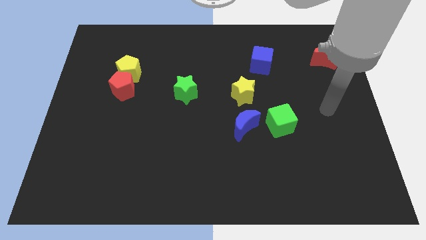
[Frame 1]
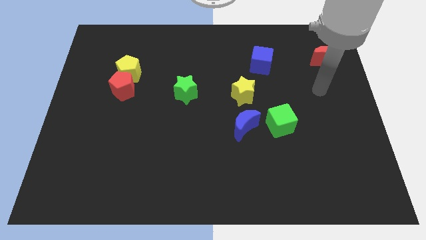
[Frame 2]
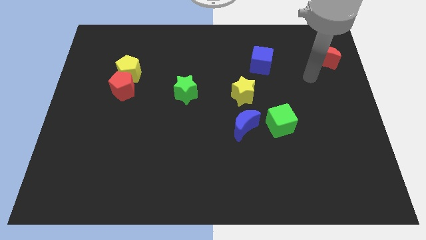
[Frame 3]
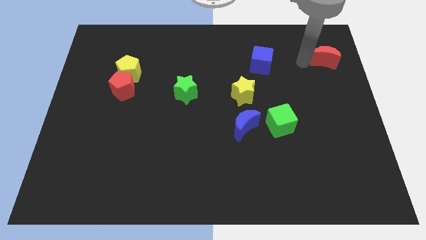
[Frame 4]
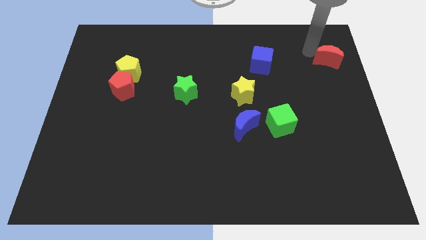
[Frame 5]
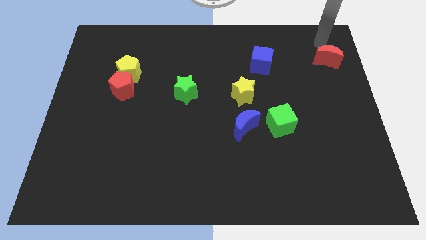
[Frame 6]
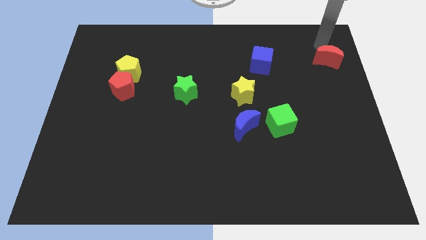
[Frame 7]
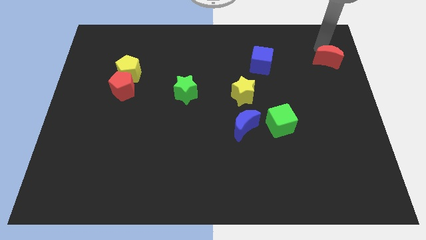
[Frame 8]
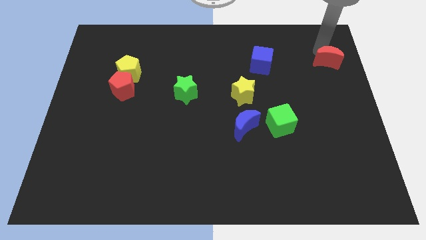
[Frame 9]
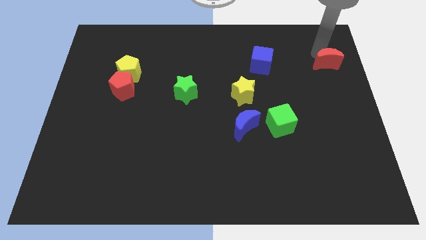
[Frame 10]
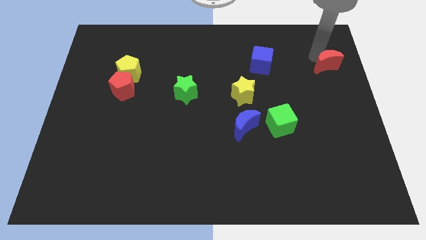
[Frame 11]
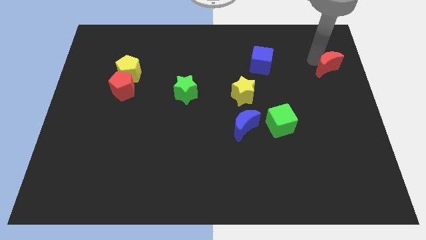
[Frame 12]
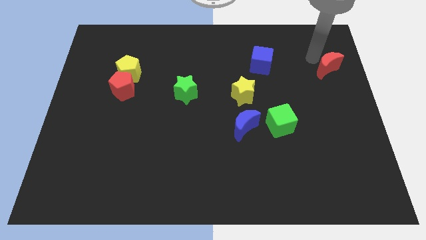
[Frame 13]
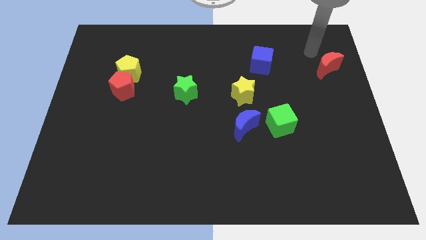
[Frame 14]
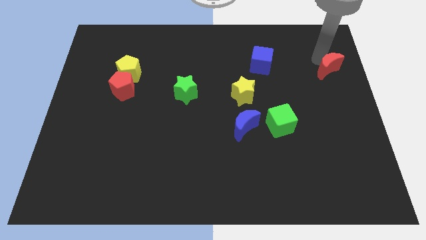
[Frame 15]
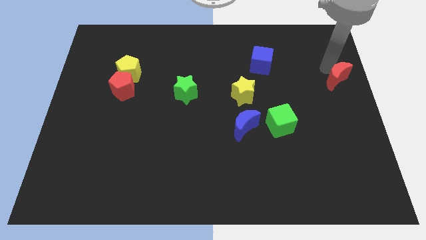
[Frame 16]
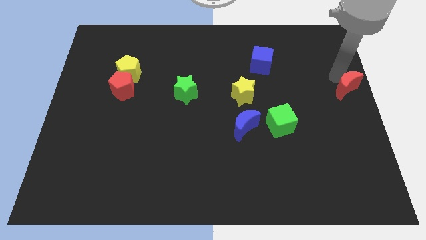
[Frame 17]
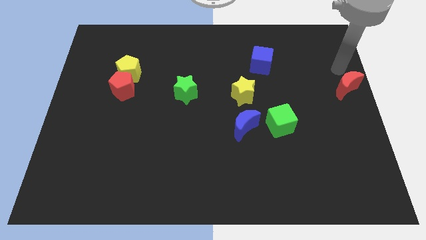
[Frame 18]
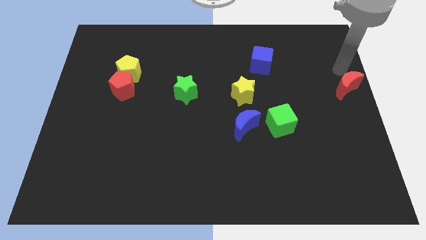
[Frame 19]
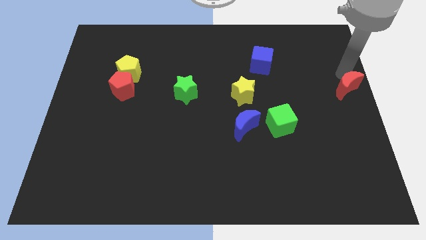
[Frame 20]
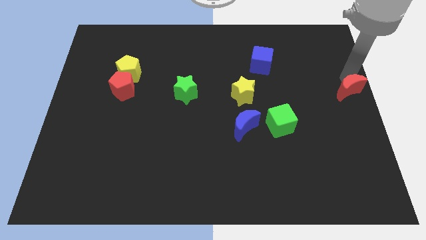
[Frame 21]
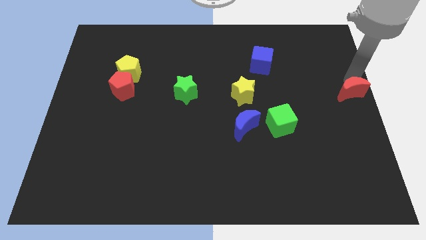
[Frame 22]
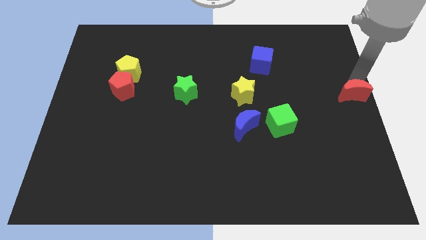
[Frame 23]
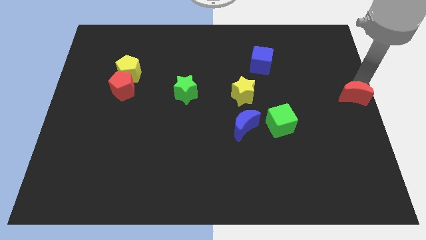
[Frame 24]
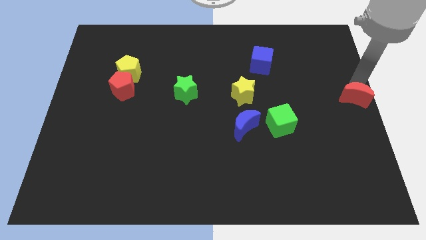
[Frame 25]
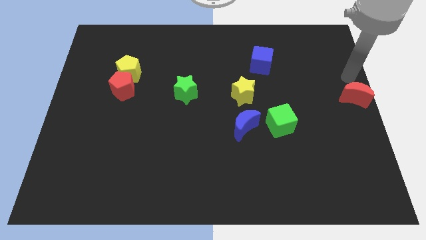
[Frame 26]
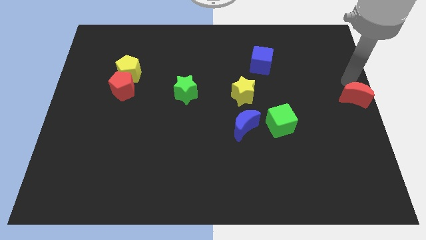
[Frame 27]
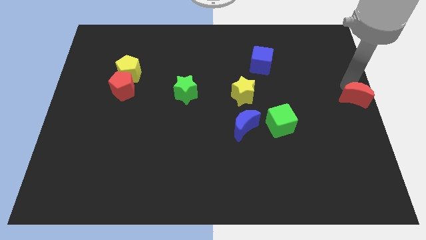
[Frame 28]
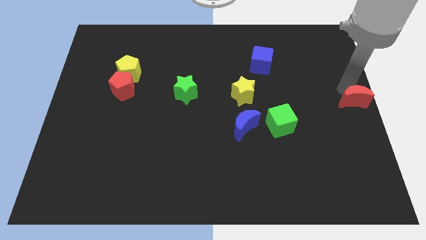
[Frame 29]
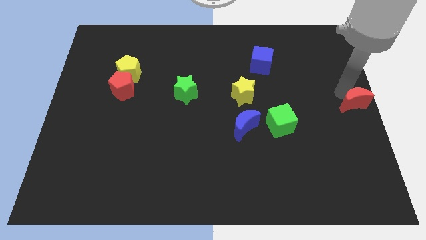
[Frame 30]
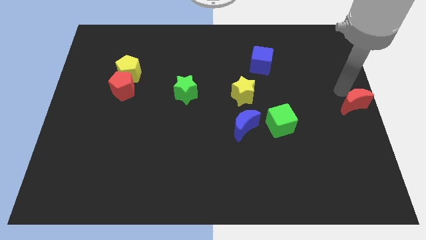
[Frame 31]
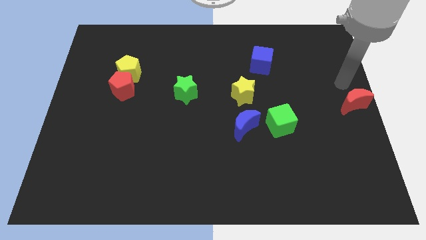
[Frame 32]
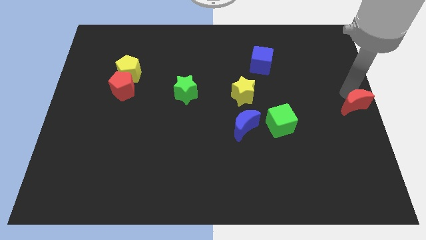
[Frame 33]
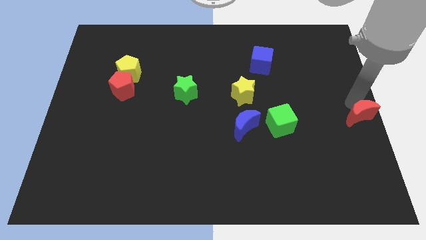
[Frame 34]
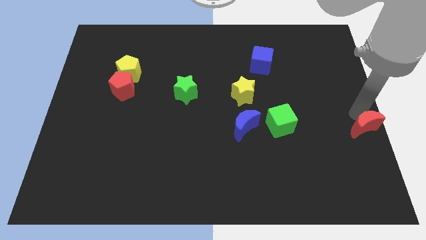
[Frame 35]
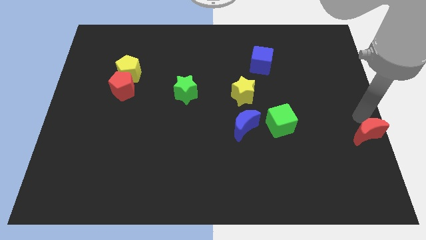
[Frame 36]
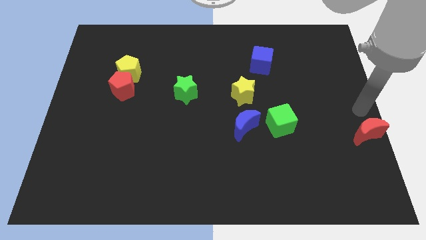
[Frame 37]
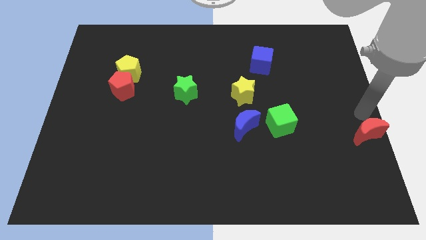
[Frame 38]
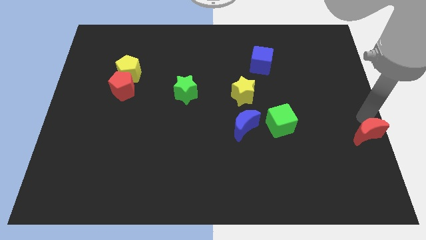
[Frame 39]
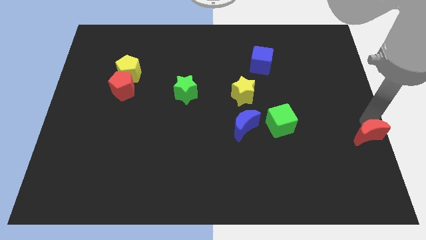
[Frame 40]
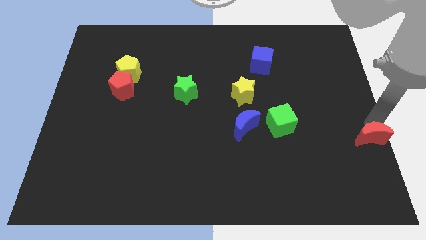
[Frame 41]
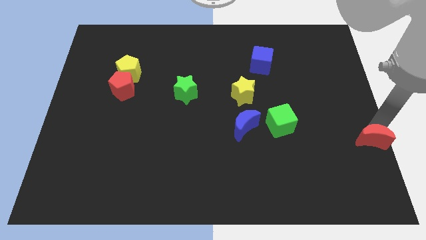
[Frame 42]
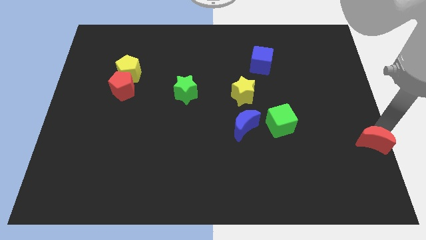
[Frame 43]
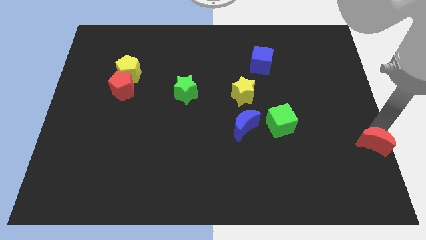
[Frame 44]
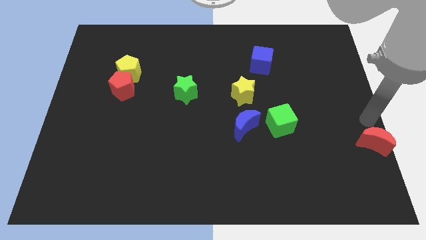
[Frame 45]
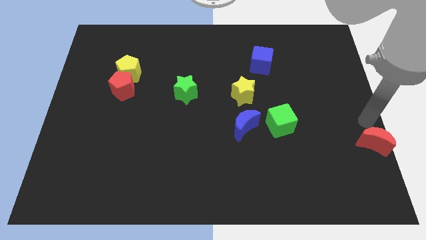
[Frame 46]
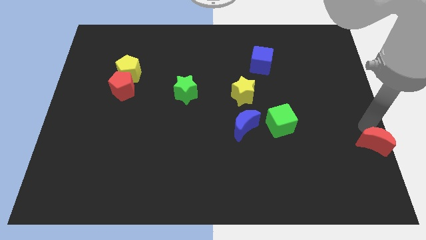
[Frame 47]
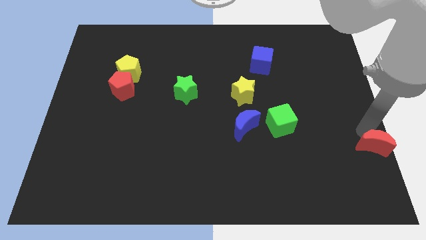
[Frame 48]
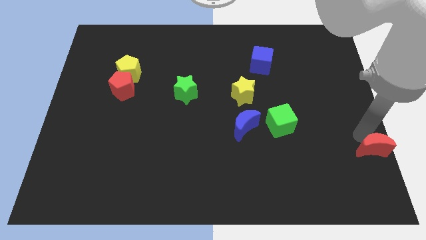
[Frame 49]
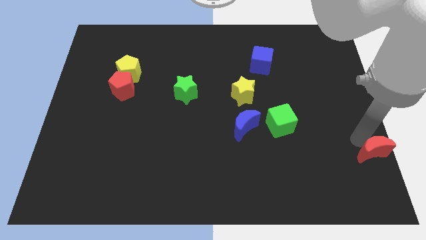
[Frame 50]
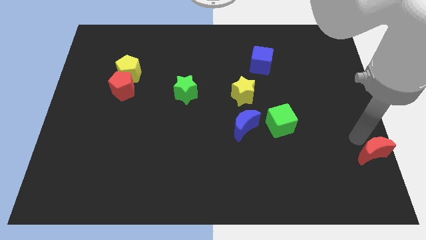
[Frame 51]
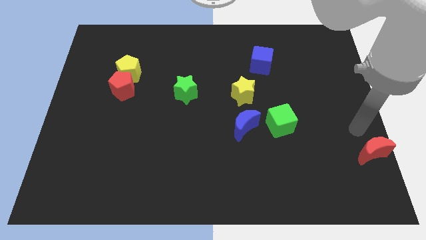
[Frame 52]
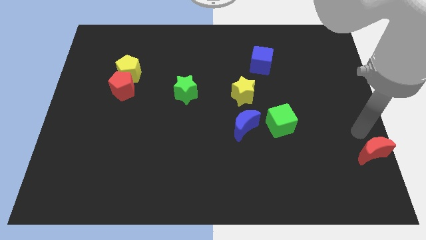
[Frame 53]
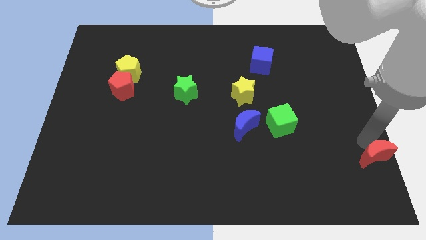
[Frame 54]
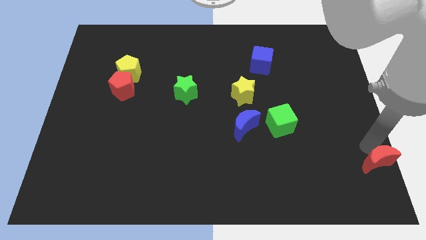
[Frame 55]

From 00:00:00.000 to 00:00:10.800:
move the red moon to the bottom right of the board

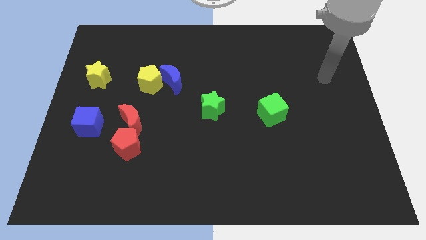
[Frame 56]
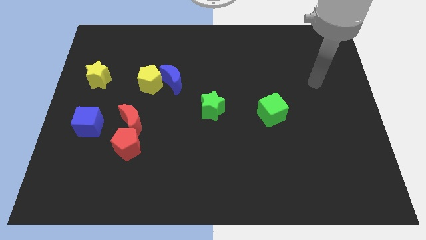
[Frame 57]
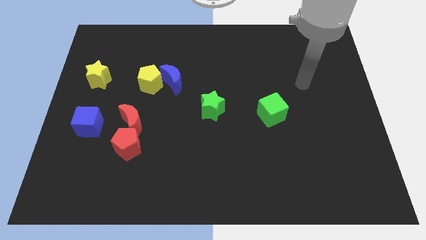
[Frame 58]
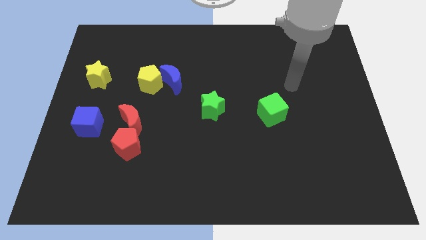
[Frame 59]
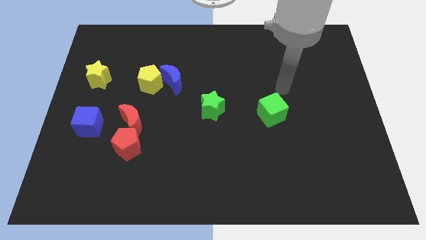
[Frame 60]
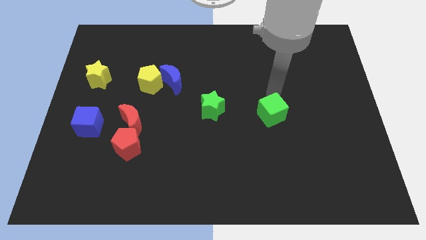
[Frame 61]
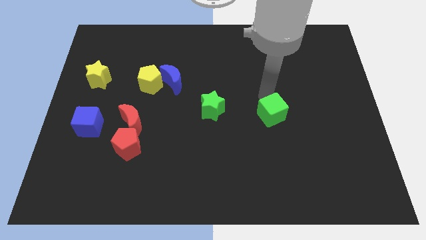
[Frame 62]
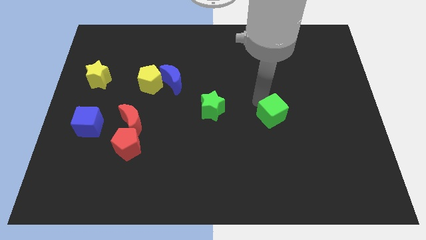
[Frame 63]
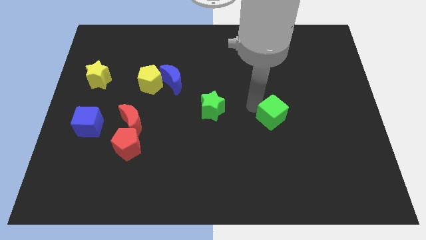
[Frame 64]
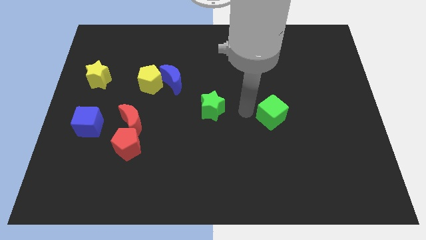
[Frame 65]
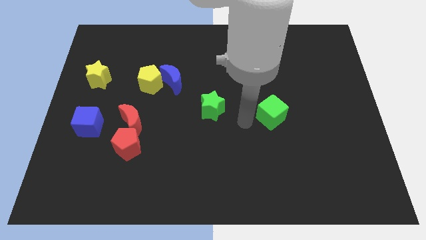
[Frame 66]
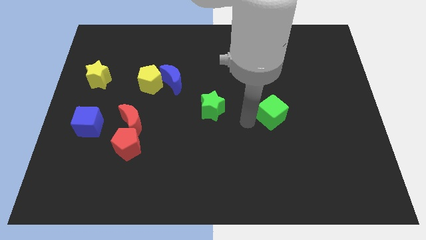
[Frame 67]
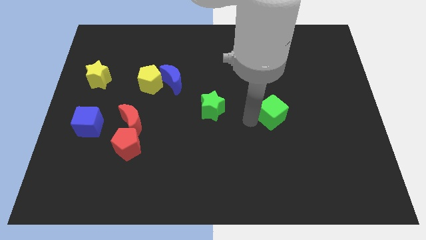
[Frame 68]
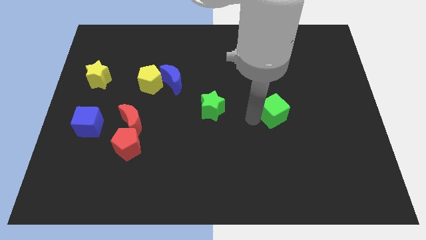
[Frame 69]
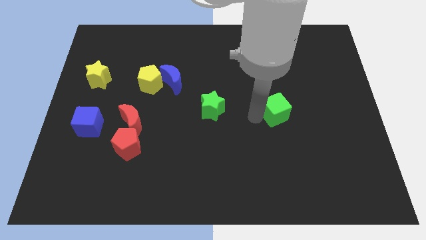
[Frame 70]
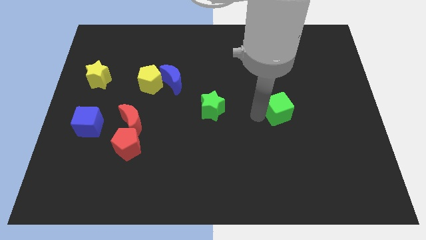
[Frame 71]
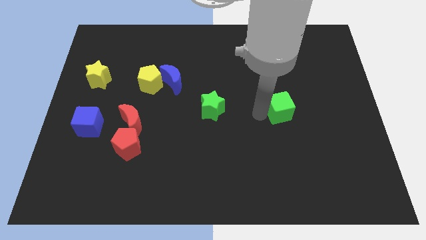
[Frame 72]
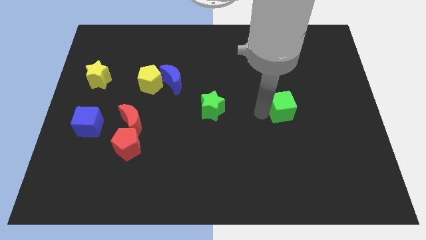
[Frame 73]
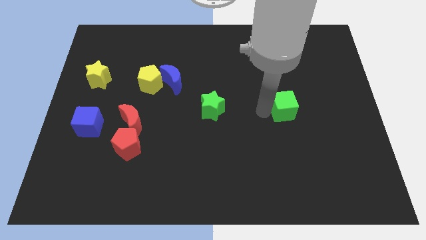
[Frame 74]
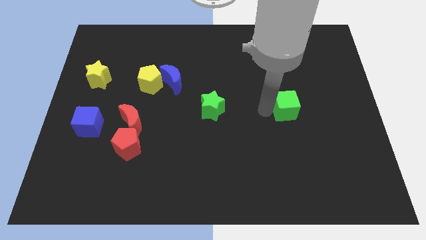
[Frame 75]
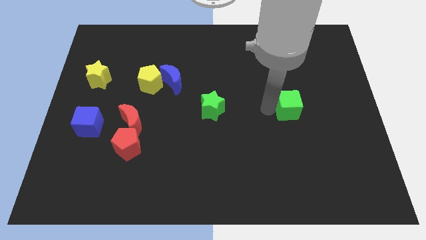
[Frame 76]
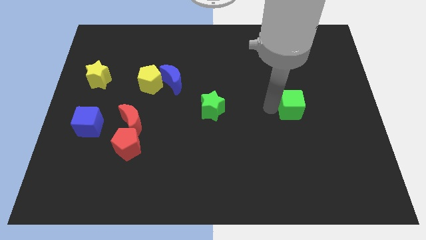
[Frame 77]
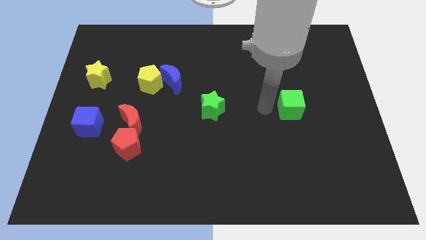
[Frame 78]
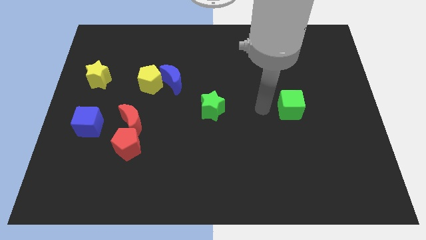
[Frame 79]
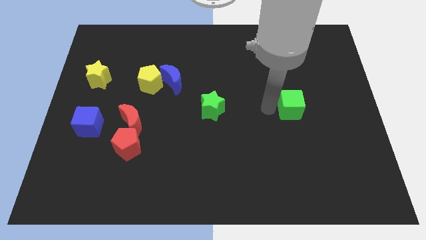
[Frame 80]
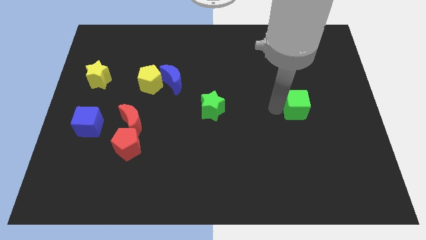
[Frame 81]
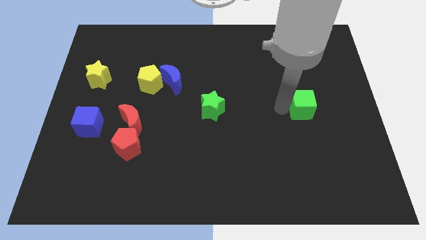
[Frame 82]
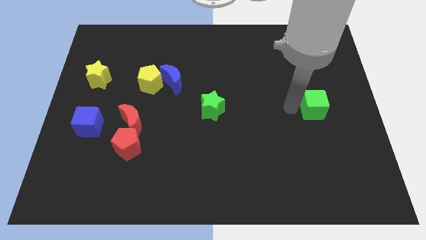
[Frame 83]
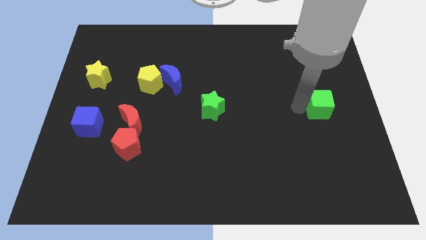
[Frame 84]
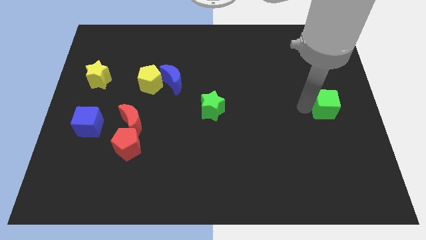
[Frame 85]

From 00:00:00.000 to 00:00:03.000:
slide the green cube to the center right
